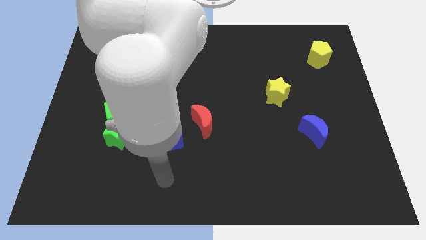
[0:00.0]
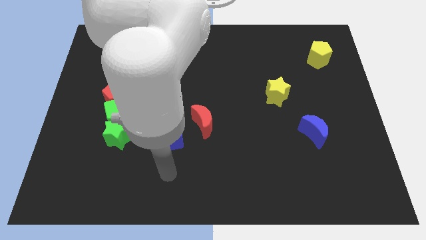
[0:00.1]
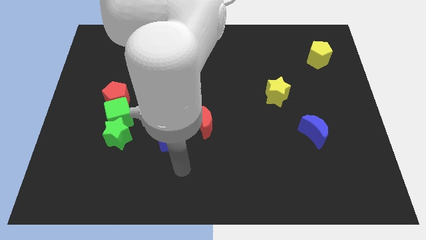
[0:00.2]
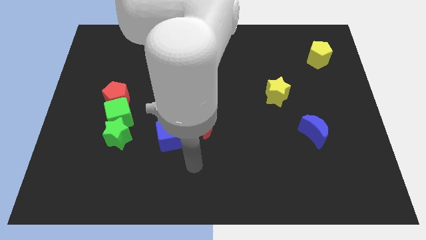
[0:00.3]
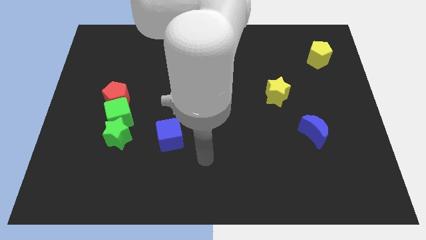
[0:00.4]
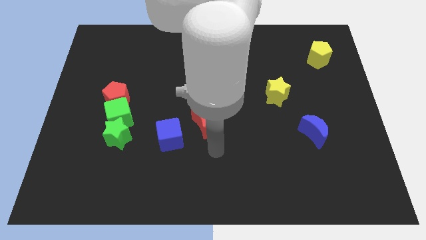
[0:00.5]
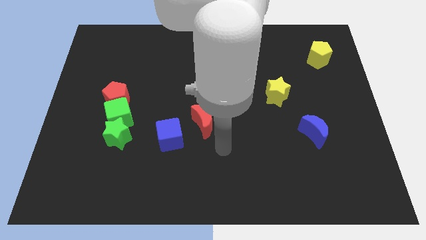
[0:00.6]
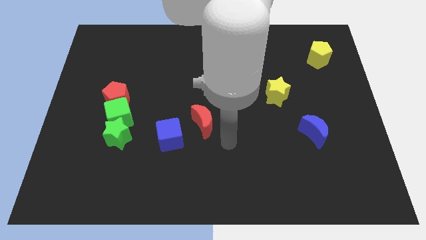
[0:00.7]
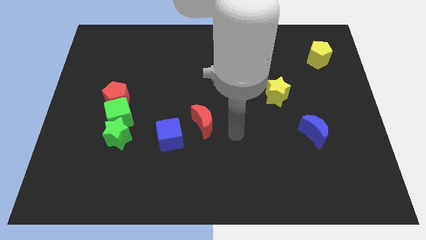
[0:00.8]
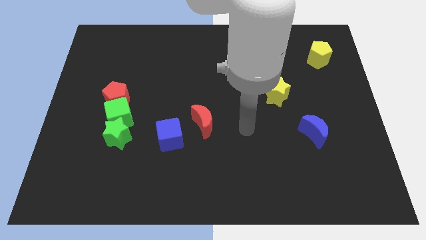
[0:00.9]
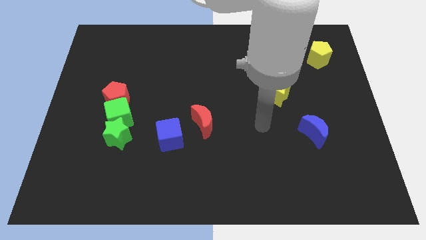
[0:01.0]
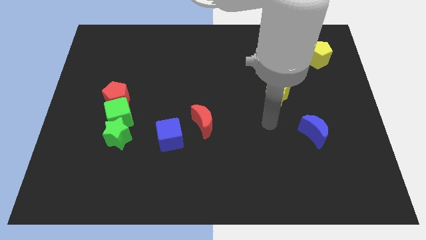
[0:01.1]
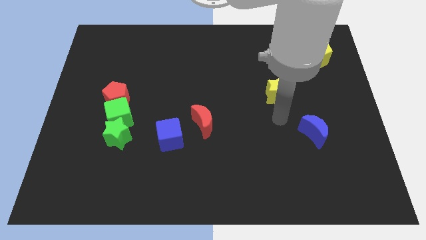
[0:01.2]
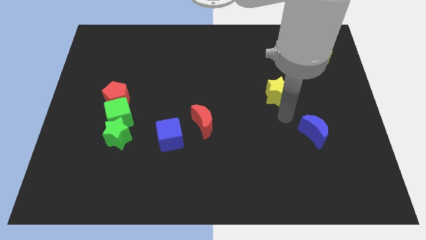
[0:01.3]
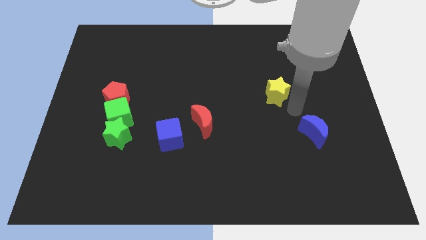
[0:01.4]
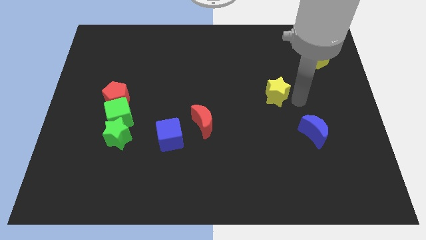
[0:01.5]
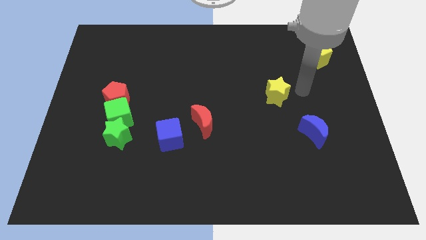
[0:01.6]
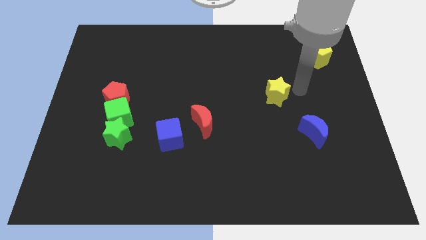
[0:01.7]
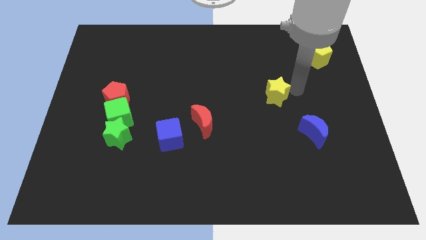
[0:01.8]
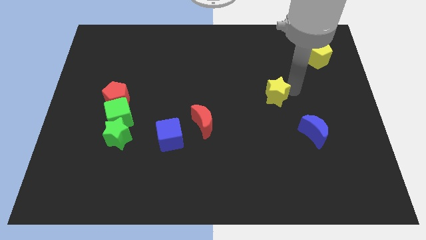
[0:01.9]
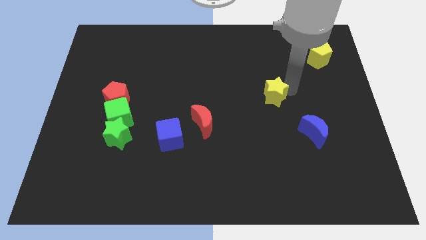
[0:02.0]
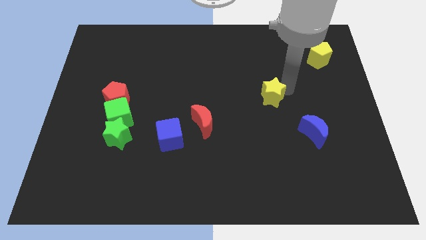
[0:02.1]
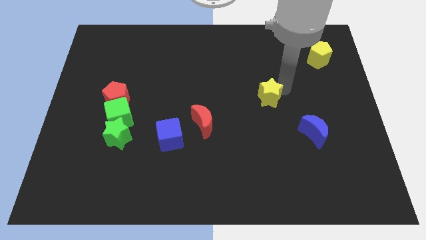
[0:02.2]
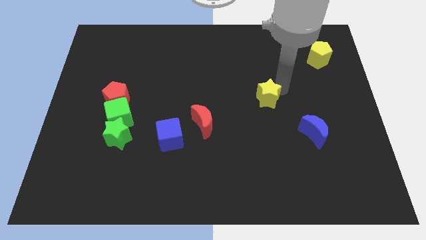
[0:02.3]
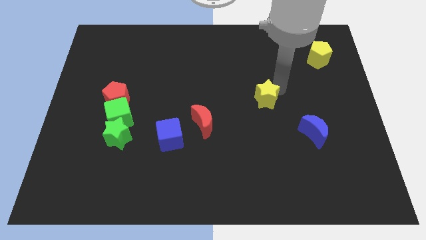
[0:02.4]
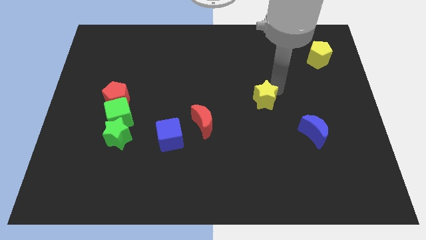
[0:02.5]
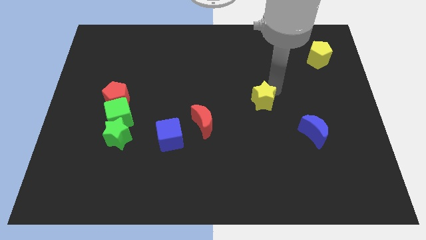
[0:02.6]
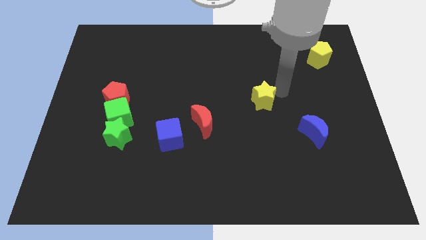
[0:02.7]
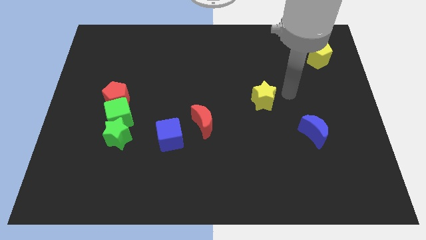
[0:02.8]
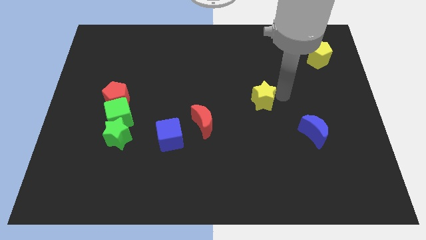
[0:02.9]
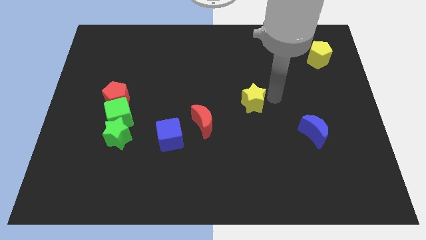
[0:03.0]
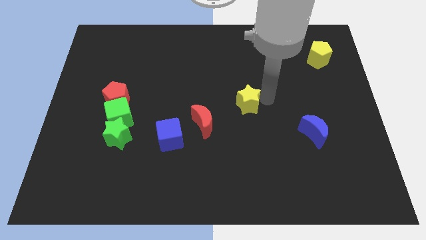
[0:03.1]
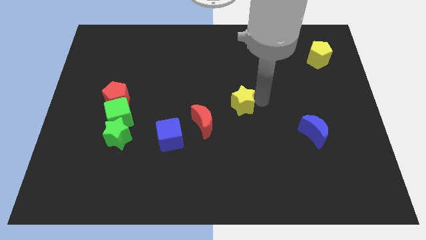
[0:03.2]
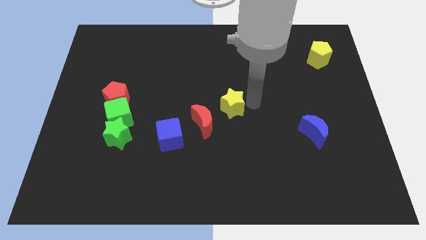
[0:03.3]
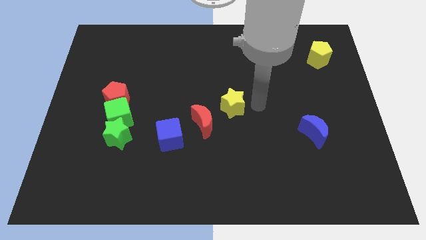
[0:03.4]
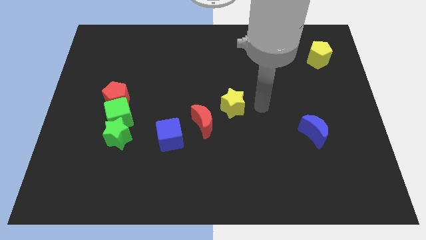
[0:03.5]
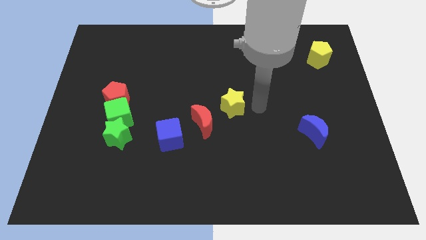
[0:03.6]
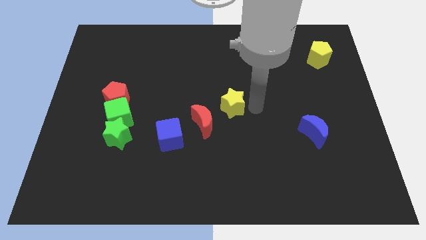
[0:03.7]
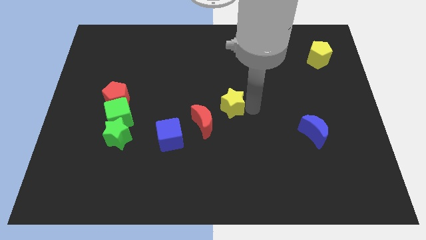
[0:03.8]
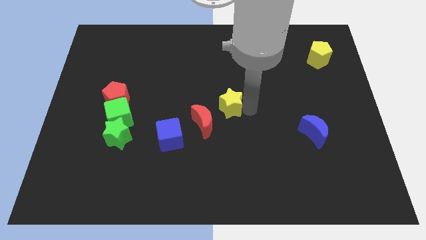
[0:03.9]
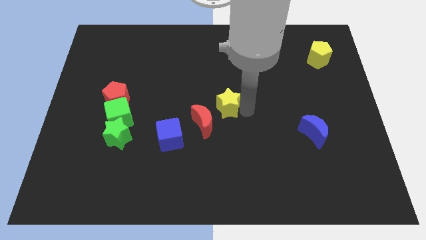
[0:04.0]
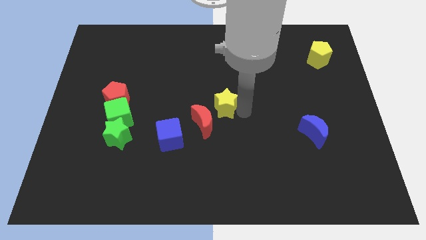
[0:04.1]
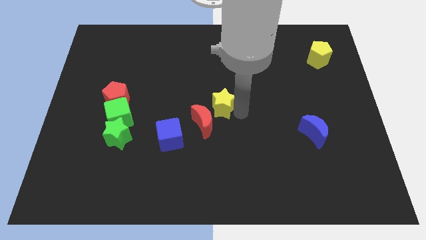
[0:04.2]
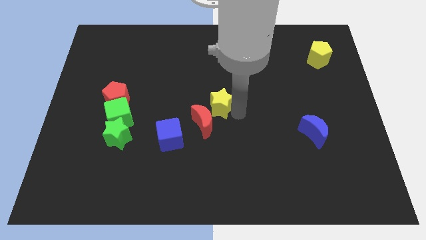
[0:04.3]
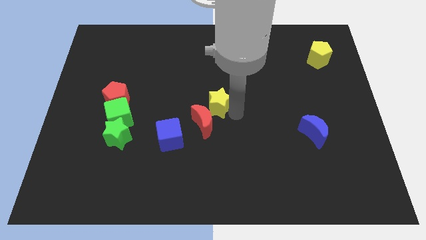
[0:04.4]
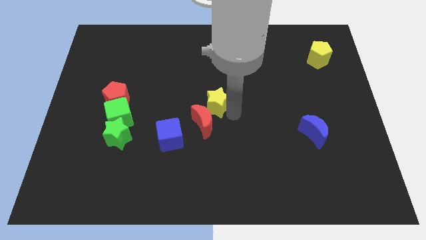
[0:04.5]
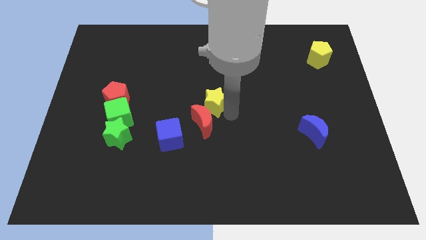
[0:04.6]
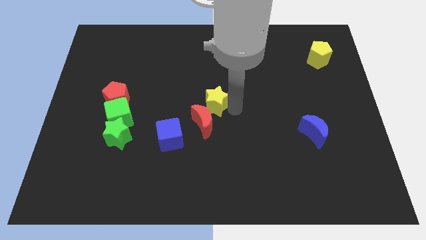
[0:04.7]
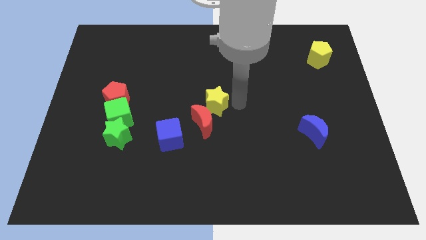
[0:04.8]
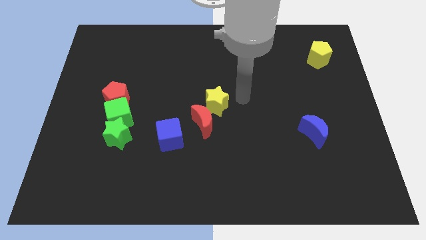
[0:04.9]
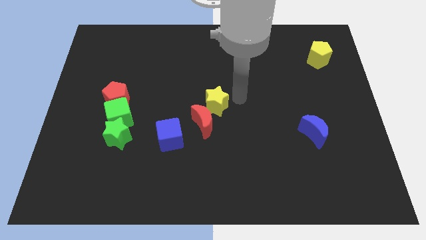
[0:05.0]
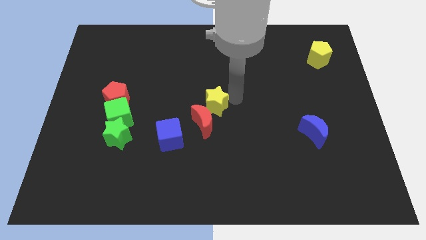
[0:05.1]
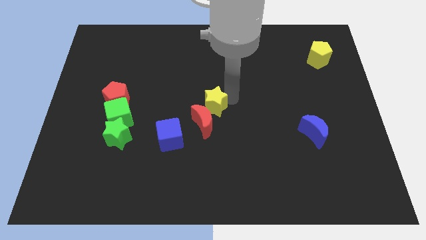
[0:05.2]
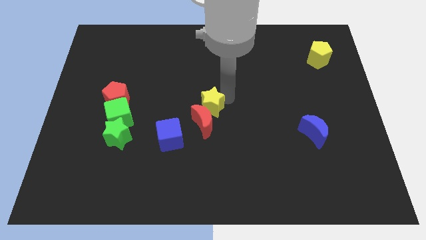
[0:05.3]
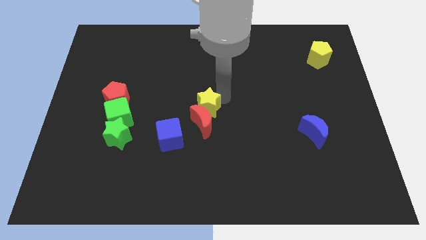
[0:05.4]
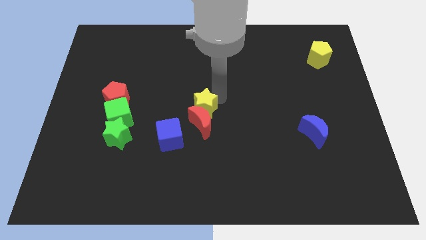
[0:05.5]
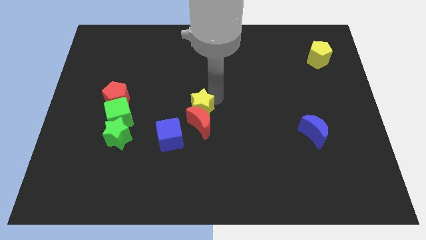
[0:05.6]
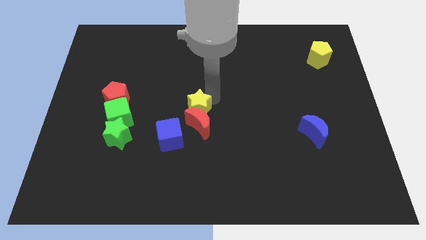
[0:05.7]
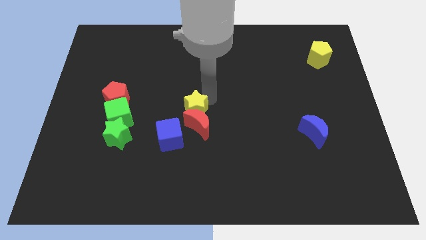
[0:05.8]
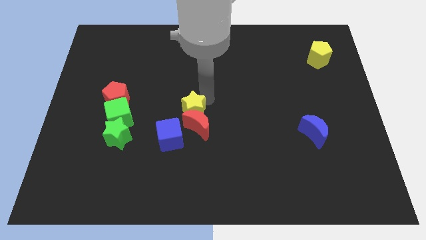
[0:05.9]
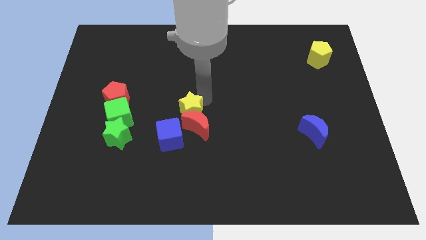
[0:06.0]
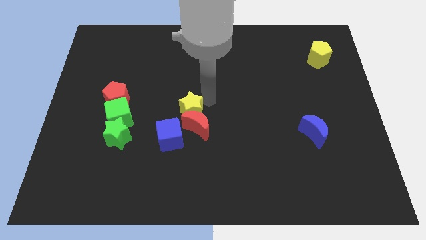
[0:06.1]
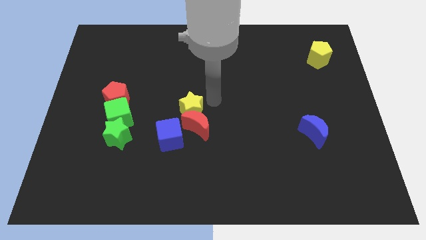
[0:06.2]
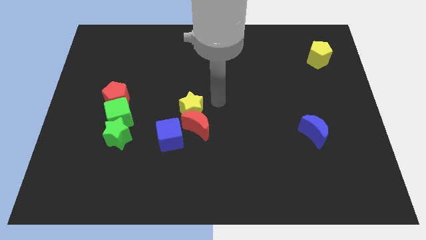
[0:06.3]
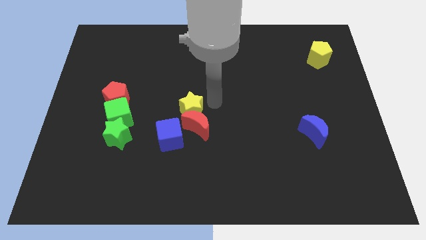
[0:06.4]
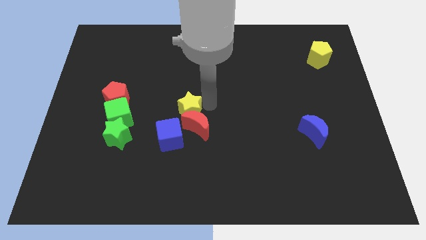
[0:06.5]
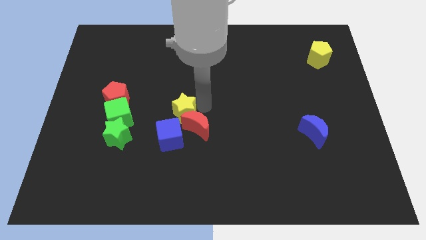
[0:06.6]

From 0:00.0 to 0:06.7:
slide the yellow star left of the red moon

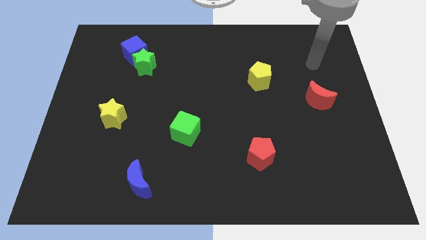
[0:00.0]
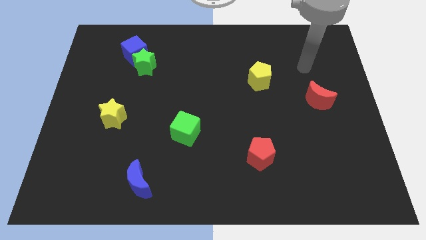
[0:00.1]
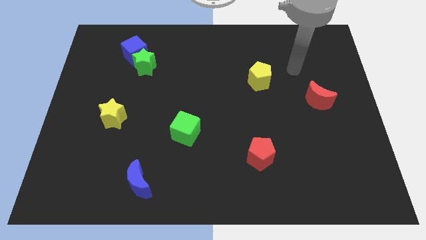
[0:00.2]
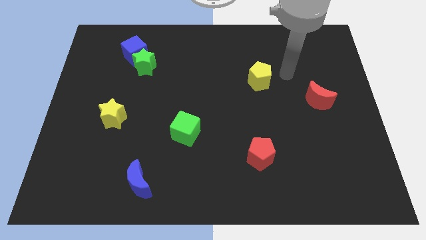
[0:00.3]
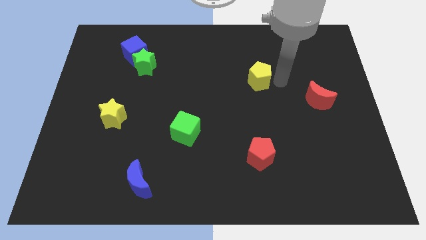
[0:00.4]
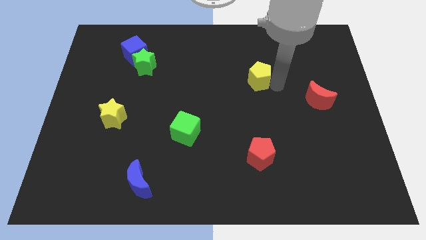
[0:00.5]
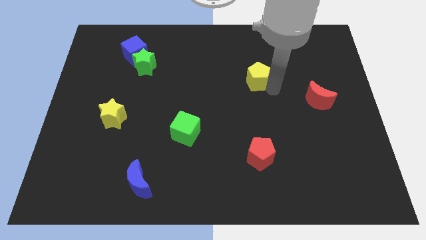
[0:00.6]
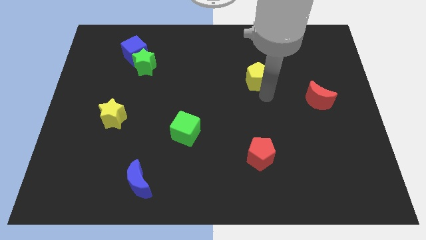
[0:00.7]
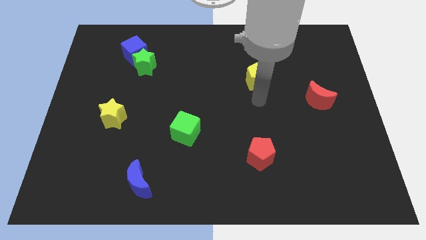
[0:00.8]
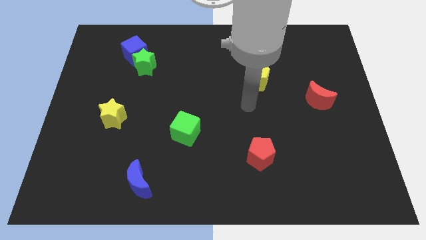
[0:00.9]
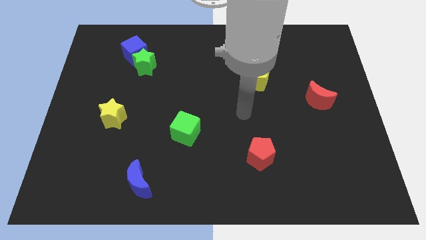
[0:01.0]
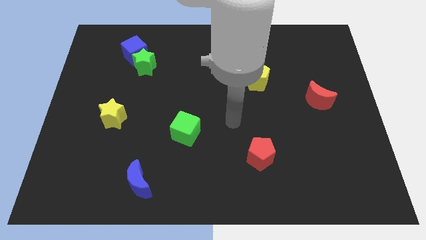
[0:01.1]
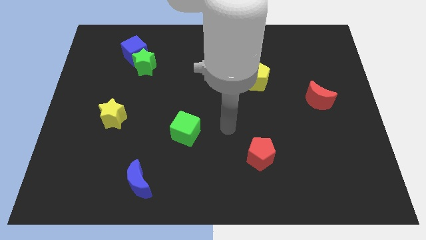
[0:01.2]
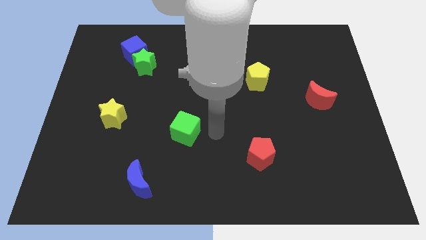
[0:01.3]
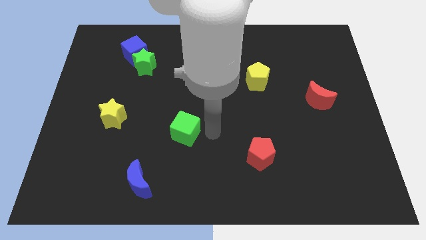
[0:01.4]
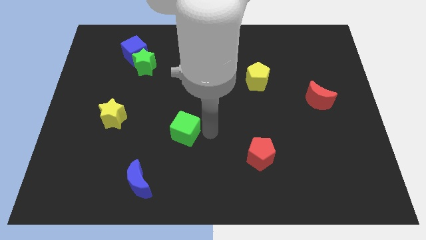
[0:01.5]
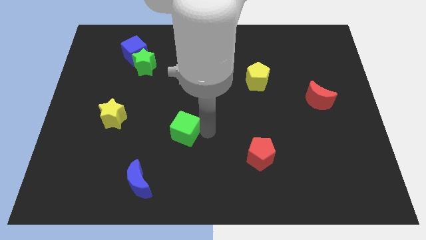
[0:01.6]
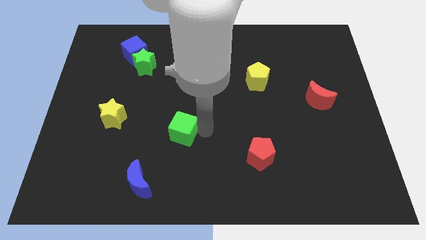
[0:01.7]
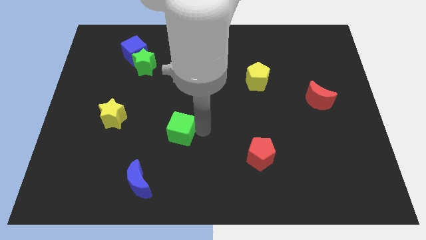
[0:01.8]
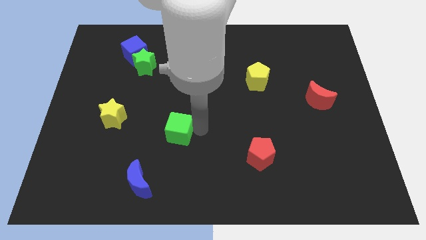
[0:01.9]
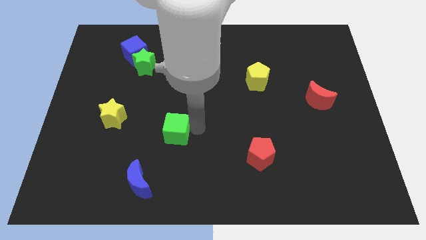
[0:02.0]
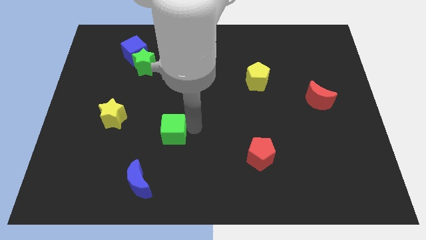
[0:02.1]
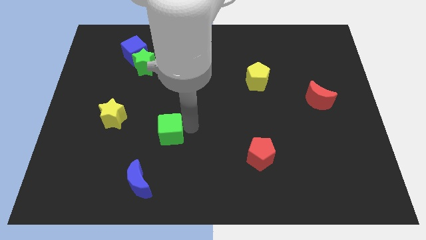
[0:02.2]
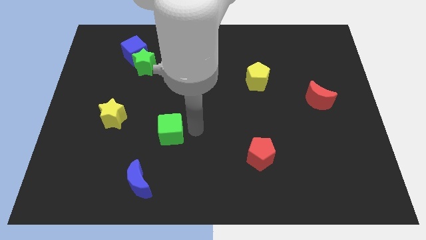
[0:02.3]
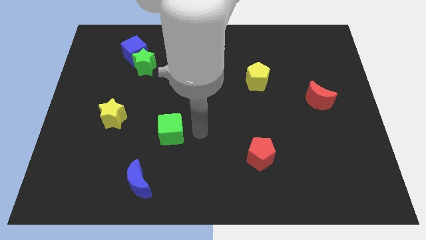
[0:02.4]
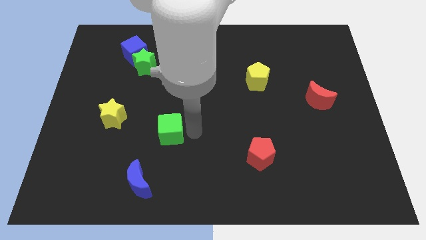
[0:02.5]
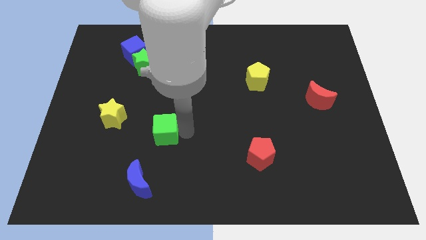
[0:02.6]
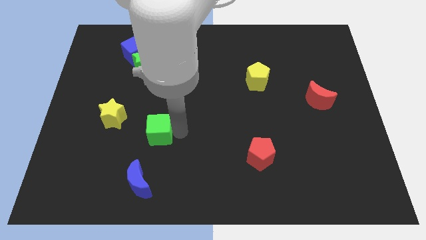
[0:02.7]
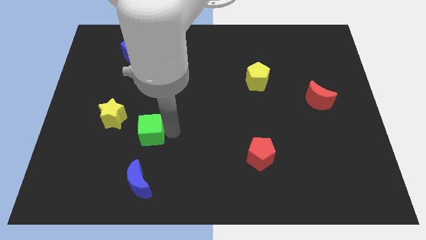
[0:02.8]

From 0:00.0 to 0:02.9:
move the green cube to the bottom right of the yellow star
